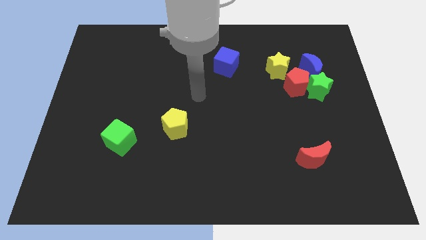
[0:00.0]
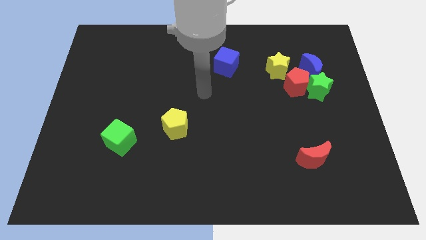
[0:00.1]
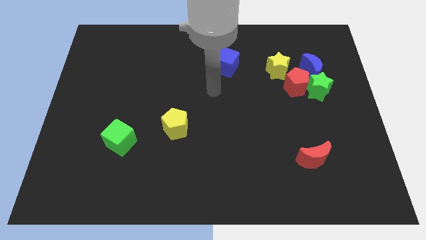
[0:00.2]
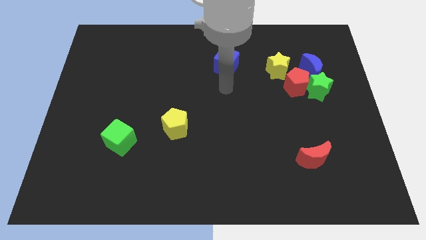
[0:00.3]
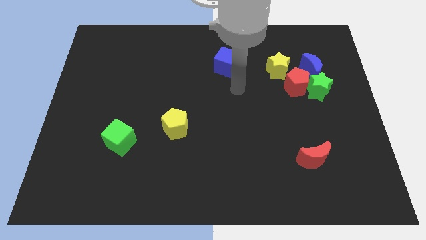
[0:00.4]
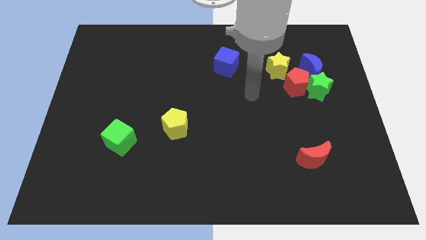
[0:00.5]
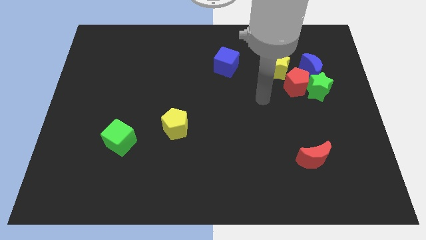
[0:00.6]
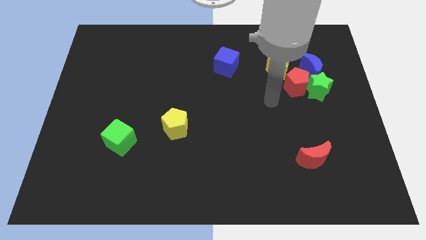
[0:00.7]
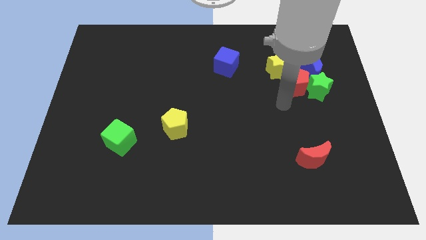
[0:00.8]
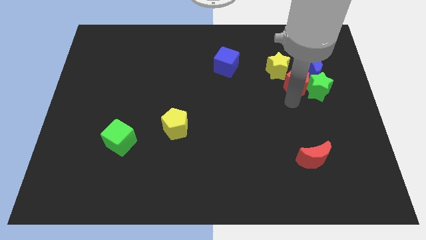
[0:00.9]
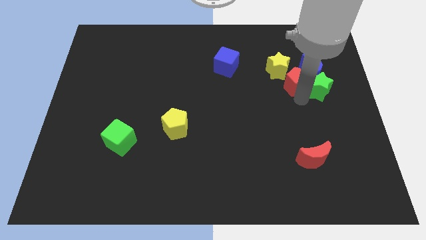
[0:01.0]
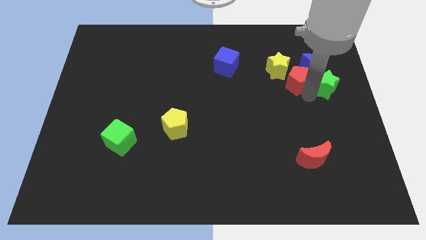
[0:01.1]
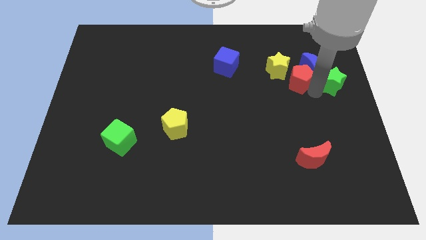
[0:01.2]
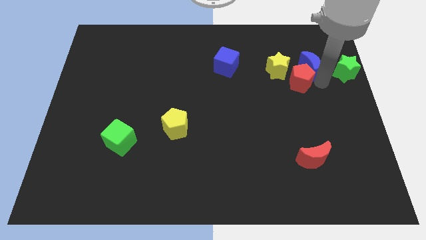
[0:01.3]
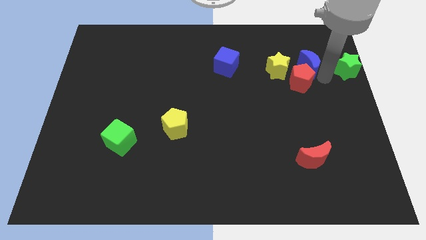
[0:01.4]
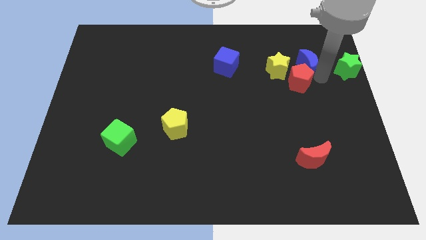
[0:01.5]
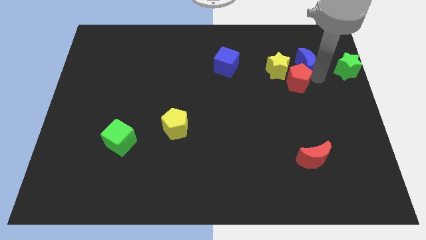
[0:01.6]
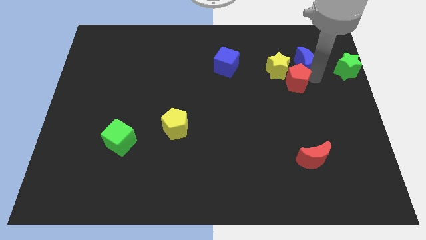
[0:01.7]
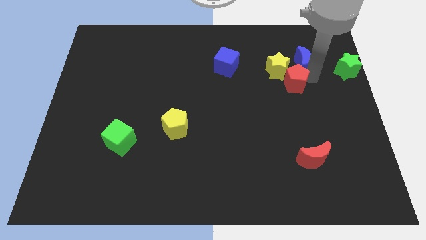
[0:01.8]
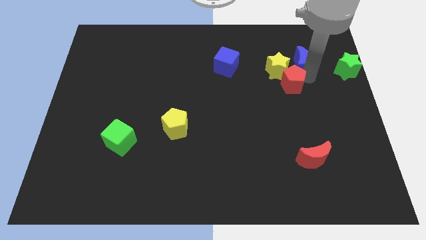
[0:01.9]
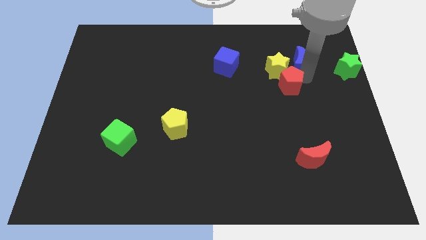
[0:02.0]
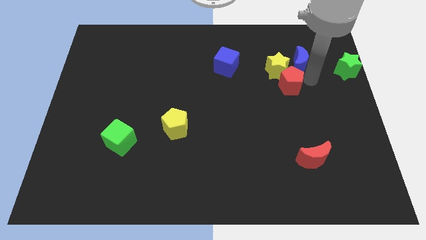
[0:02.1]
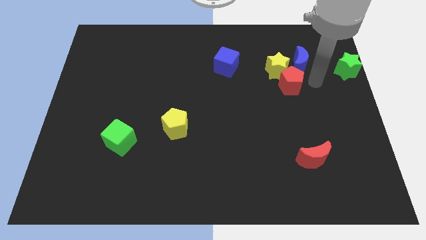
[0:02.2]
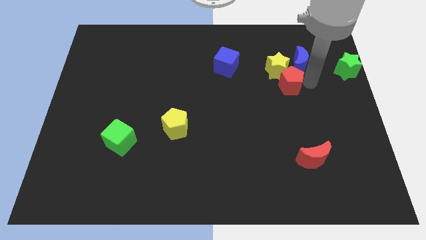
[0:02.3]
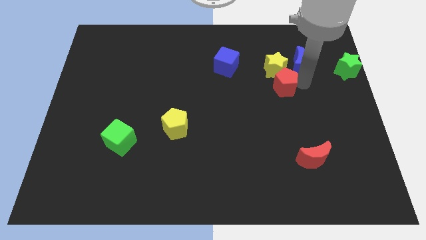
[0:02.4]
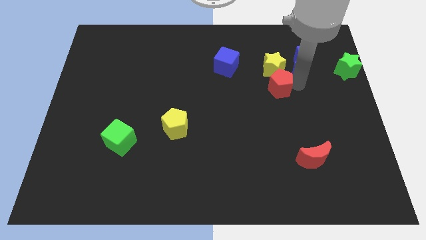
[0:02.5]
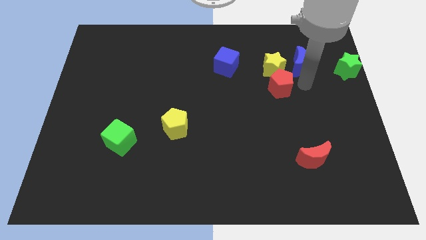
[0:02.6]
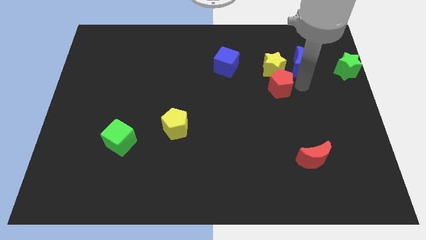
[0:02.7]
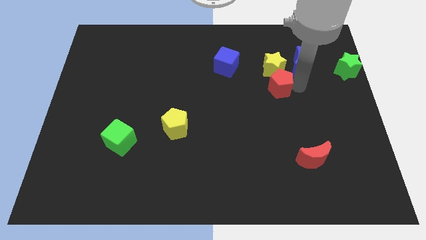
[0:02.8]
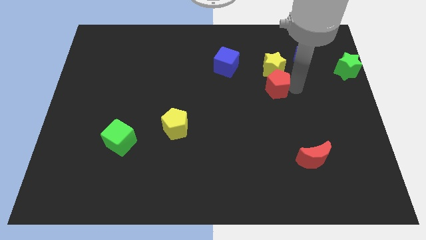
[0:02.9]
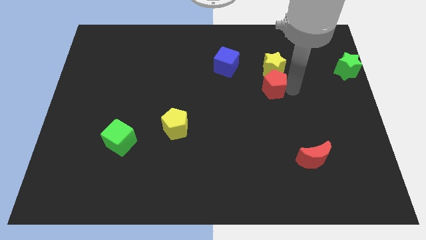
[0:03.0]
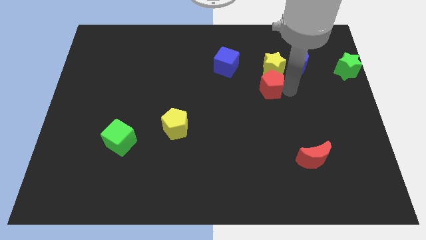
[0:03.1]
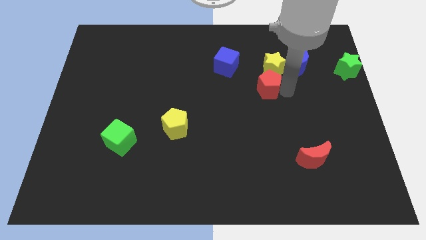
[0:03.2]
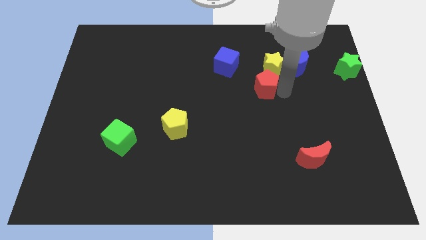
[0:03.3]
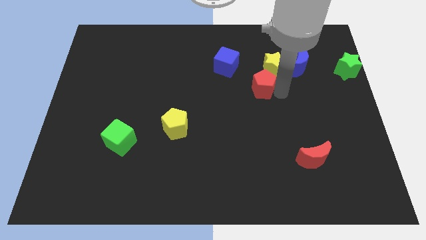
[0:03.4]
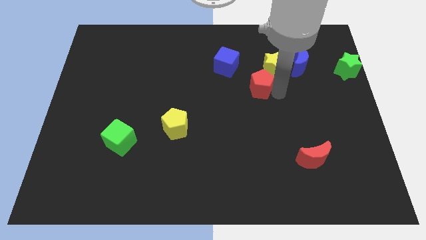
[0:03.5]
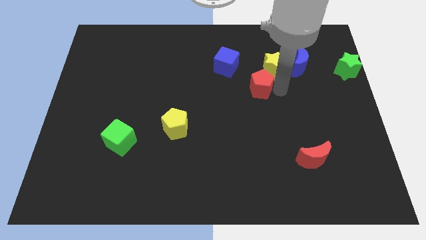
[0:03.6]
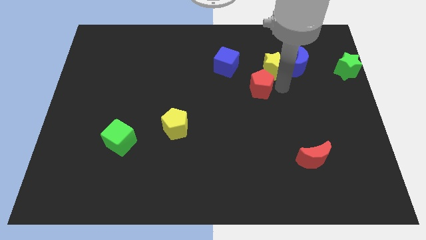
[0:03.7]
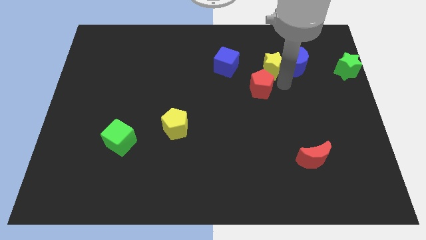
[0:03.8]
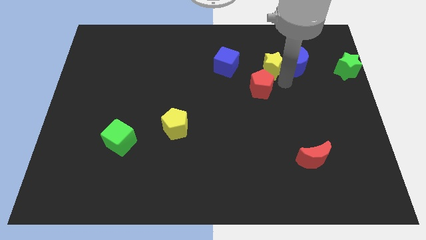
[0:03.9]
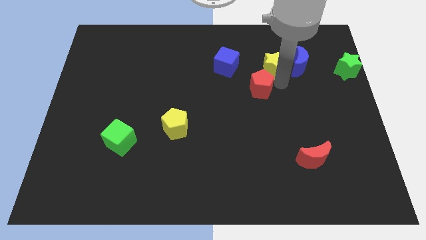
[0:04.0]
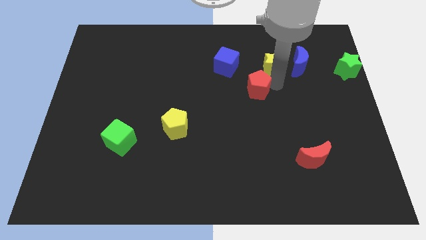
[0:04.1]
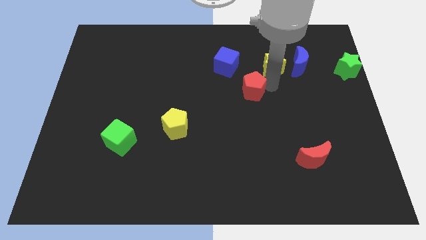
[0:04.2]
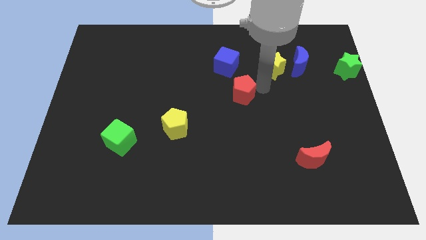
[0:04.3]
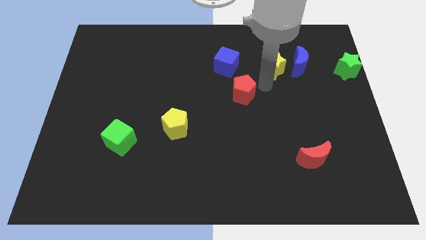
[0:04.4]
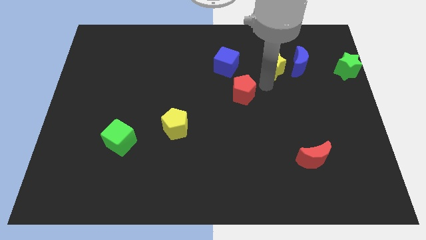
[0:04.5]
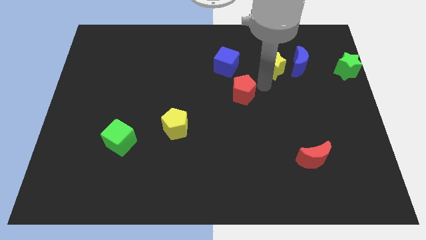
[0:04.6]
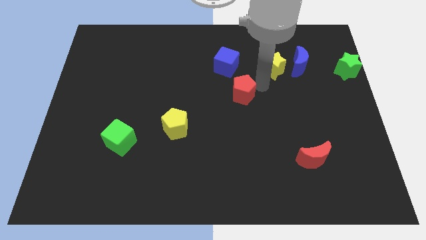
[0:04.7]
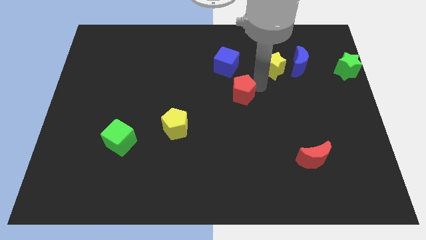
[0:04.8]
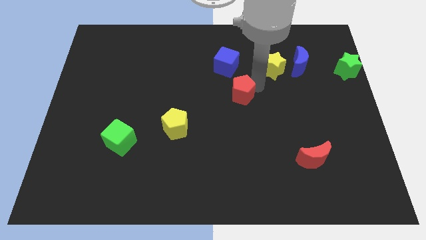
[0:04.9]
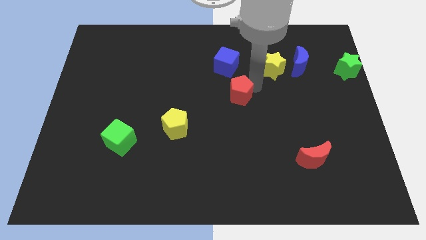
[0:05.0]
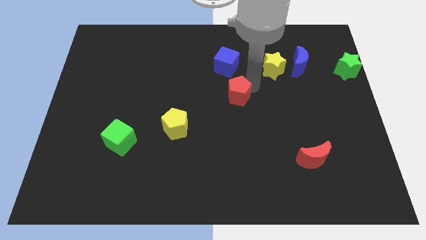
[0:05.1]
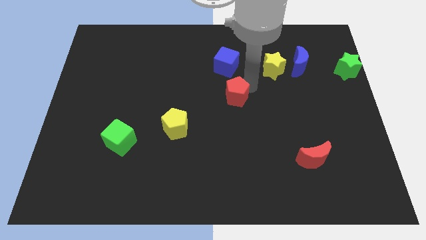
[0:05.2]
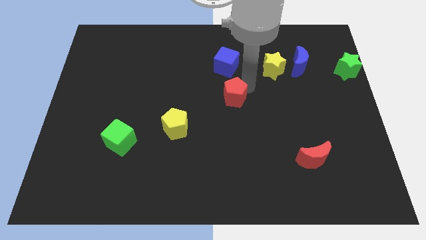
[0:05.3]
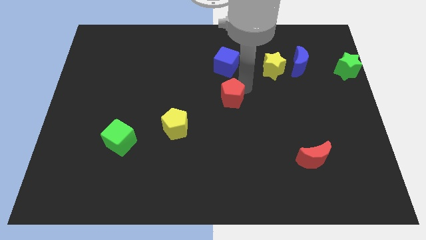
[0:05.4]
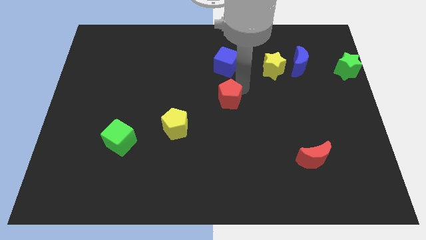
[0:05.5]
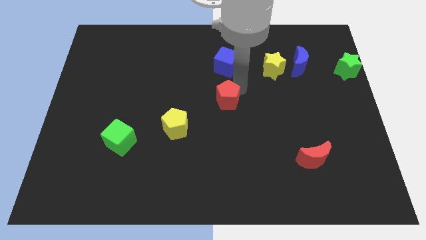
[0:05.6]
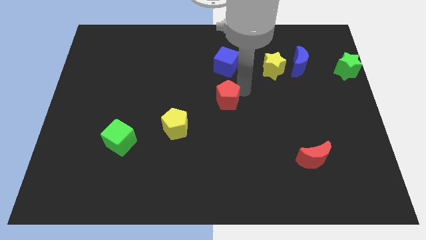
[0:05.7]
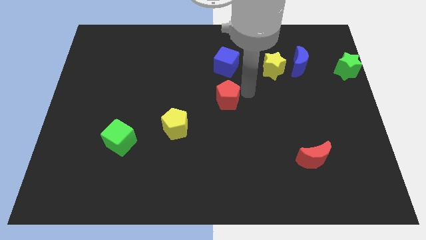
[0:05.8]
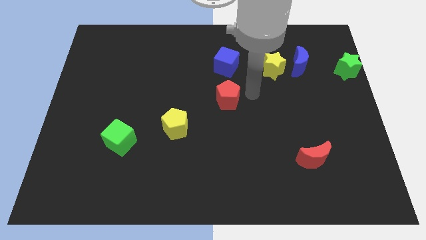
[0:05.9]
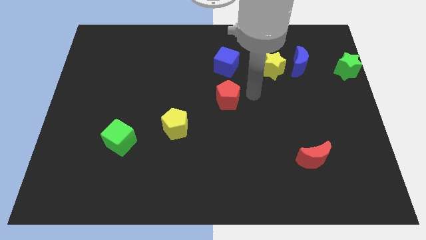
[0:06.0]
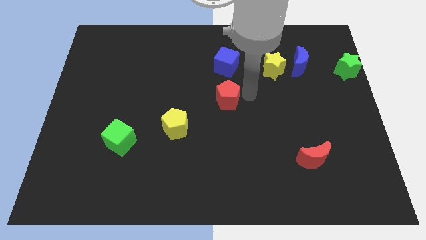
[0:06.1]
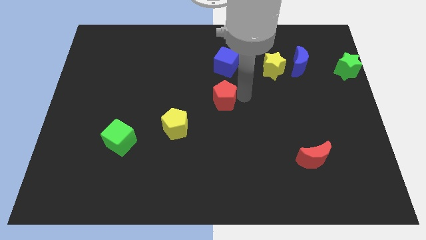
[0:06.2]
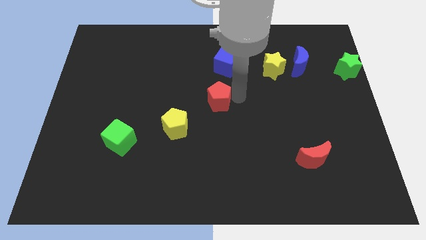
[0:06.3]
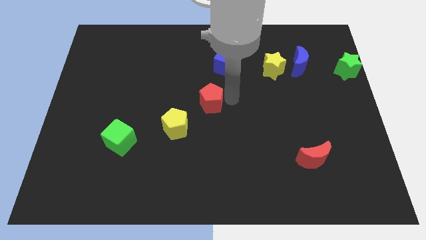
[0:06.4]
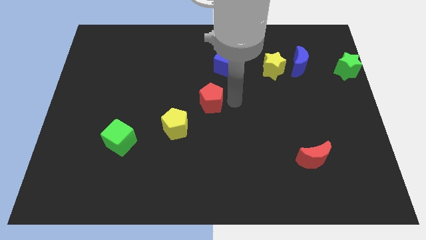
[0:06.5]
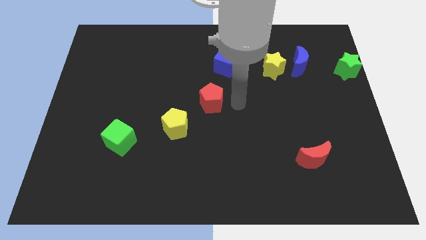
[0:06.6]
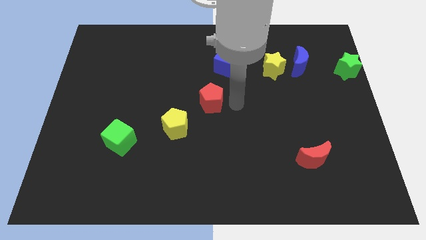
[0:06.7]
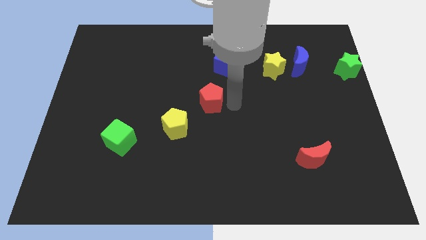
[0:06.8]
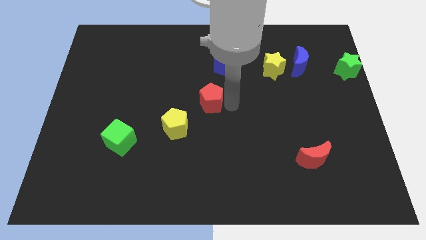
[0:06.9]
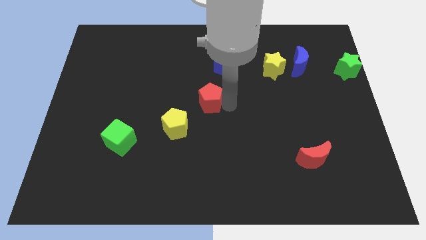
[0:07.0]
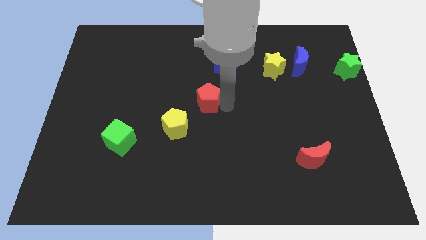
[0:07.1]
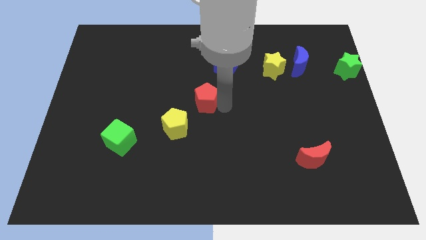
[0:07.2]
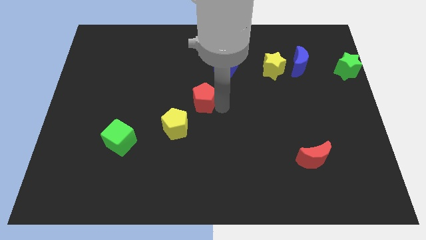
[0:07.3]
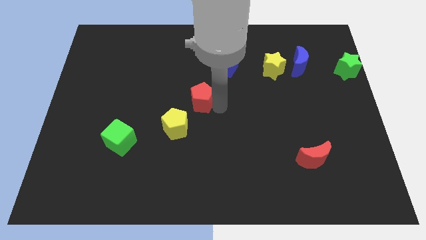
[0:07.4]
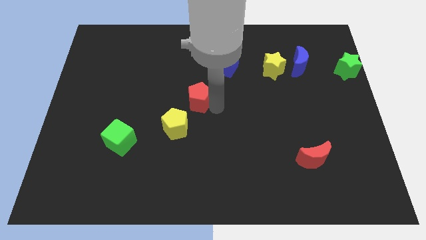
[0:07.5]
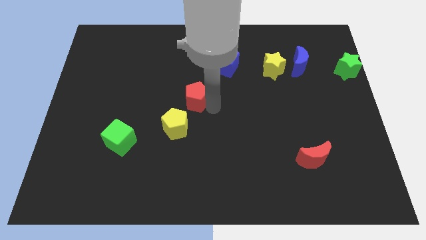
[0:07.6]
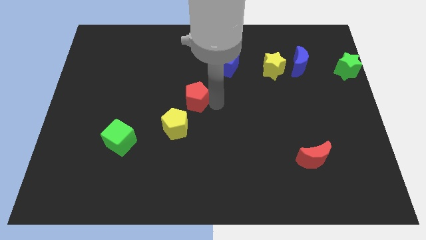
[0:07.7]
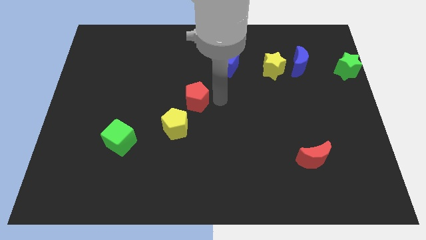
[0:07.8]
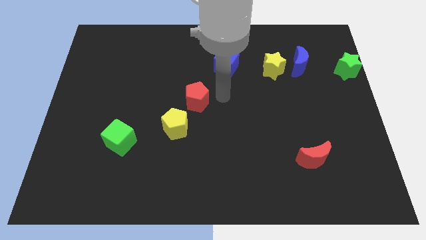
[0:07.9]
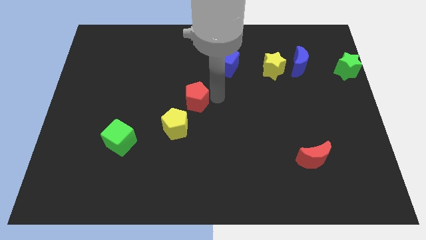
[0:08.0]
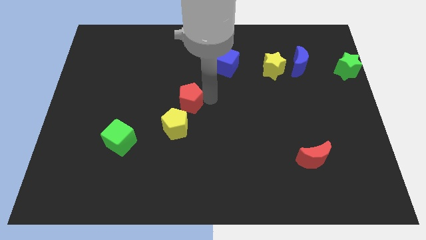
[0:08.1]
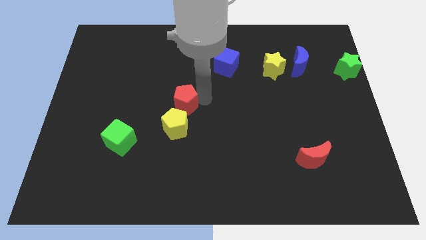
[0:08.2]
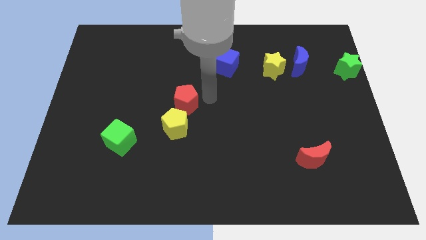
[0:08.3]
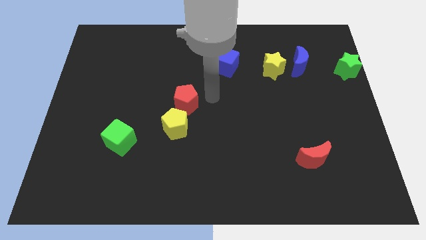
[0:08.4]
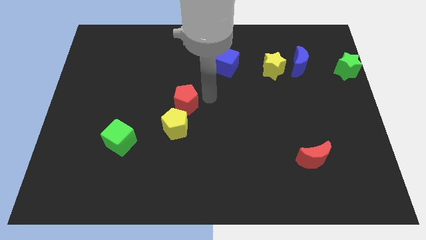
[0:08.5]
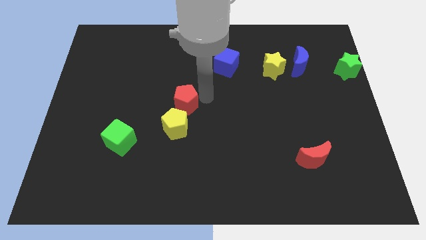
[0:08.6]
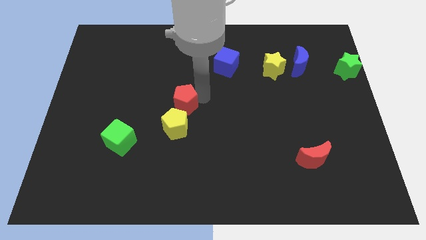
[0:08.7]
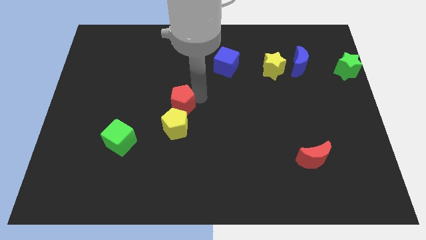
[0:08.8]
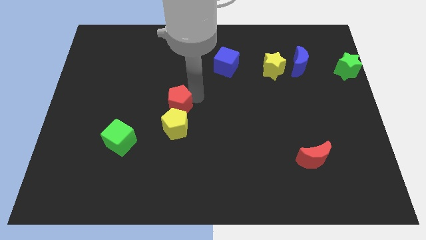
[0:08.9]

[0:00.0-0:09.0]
put the red pentagon diagonally up and to the left of the yellow pentagon
